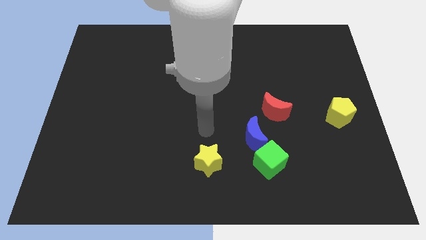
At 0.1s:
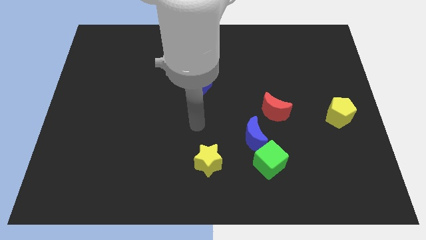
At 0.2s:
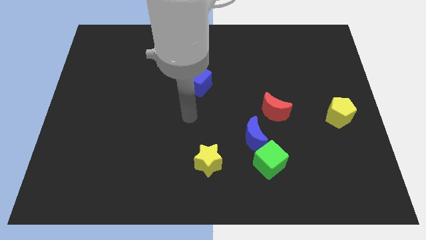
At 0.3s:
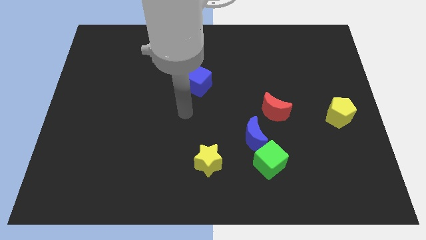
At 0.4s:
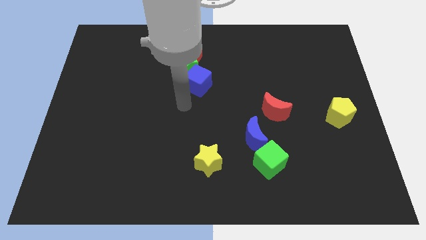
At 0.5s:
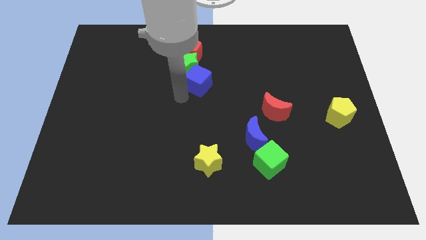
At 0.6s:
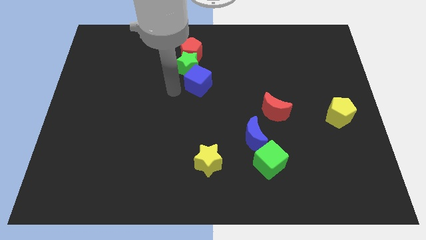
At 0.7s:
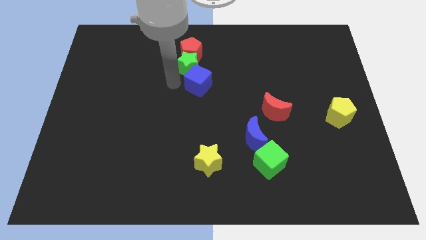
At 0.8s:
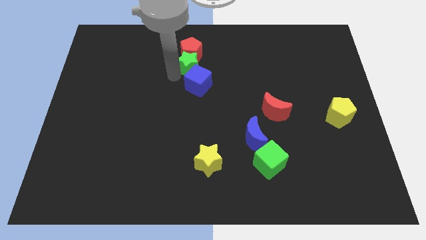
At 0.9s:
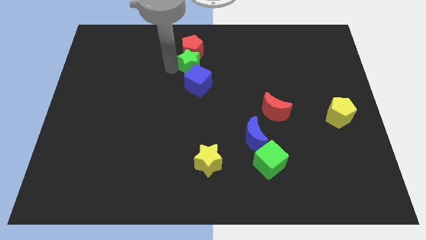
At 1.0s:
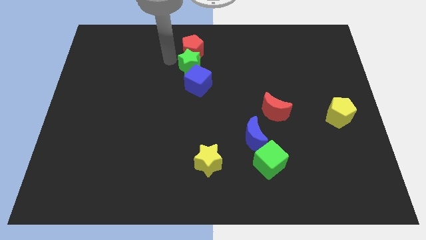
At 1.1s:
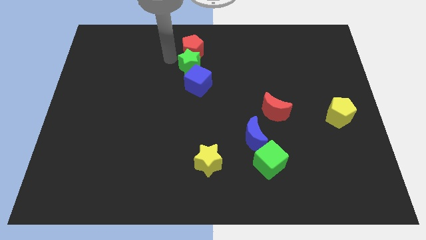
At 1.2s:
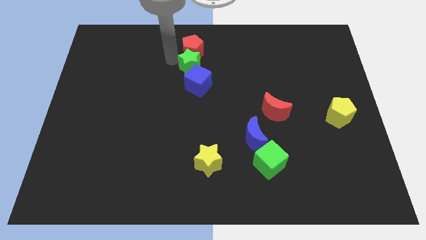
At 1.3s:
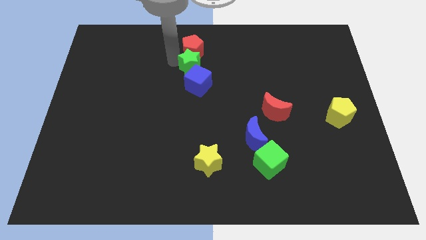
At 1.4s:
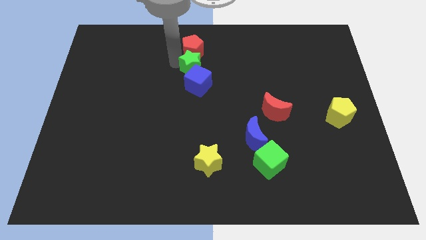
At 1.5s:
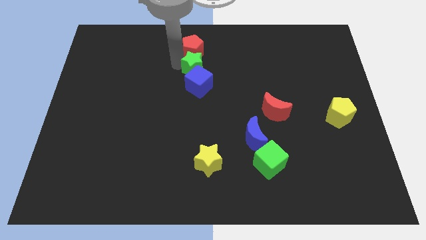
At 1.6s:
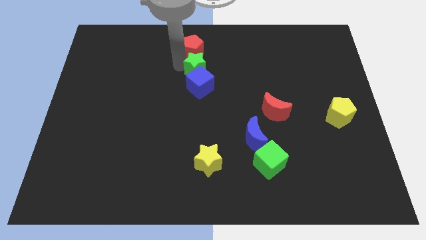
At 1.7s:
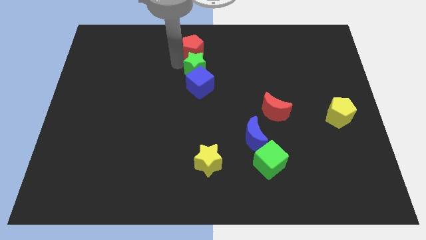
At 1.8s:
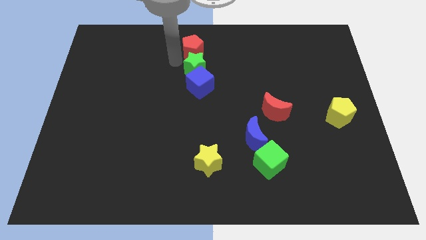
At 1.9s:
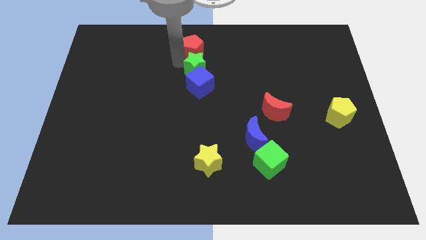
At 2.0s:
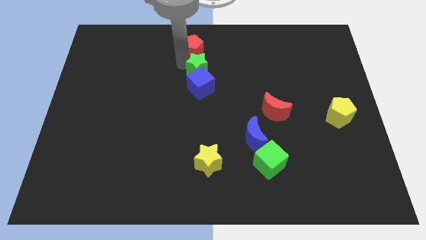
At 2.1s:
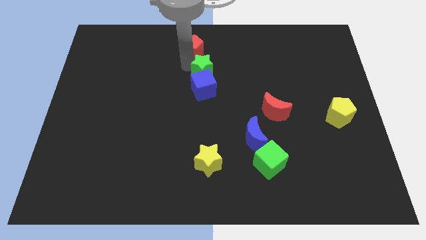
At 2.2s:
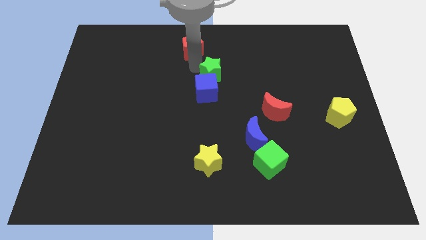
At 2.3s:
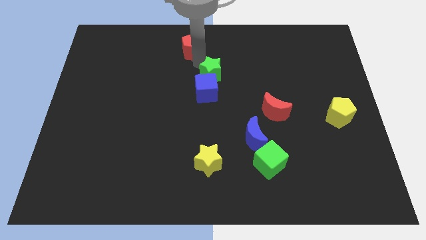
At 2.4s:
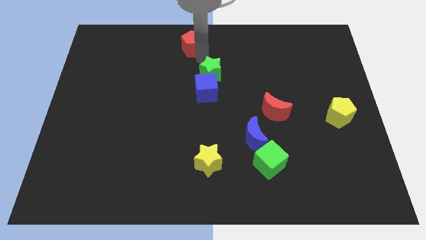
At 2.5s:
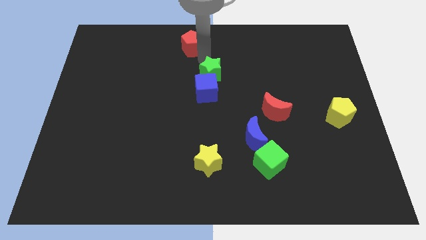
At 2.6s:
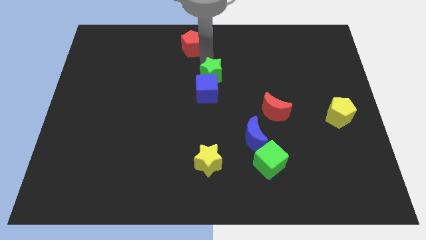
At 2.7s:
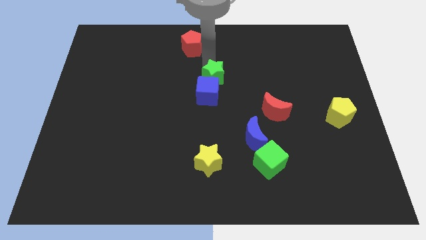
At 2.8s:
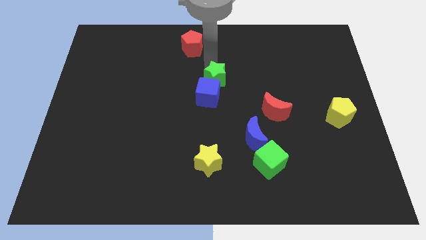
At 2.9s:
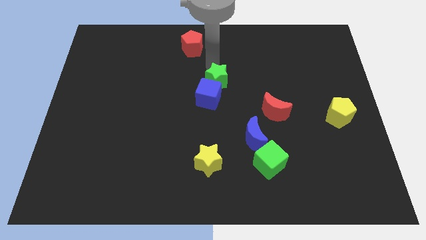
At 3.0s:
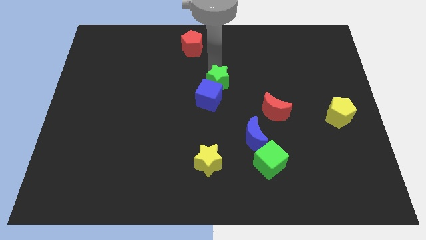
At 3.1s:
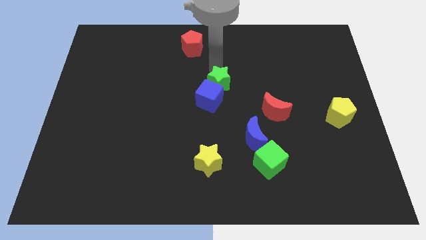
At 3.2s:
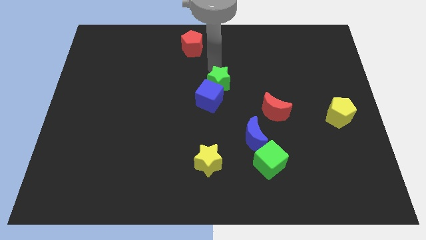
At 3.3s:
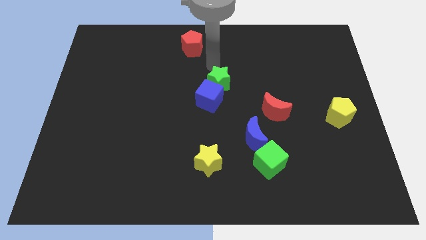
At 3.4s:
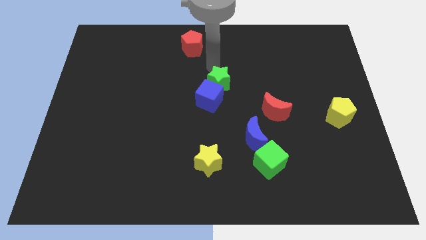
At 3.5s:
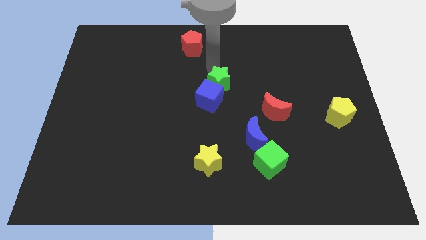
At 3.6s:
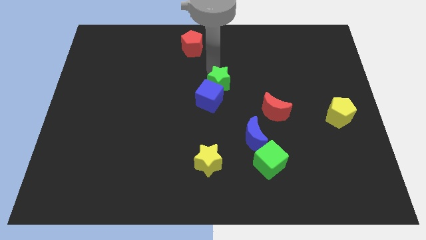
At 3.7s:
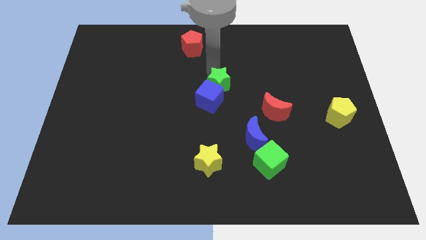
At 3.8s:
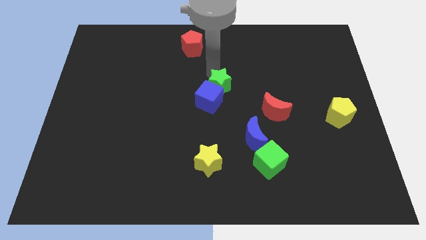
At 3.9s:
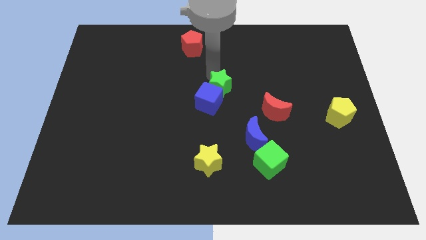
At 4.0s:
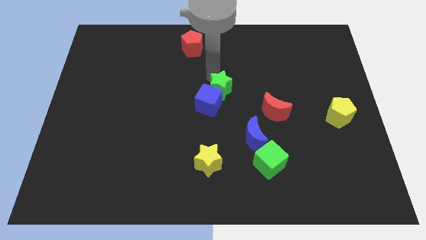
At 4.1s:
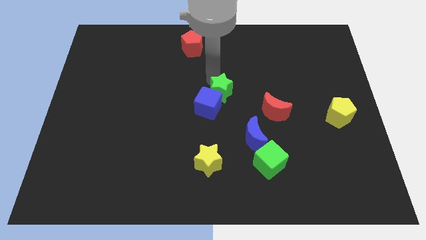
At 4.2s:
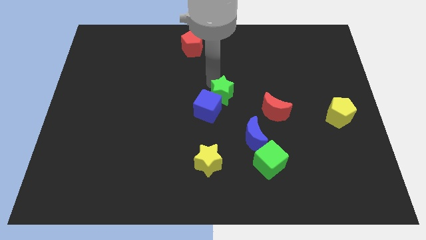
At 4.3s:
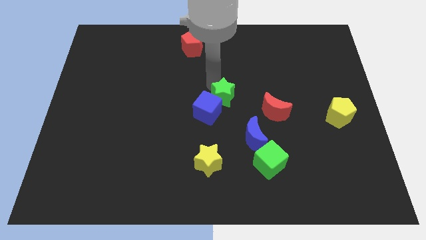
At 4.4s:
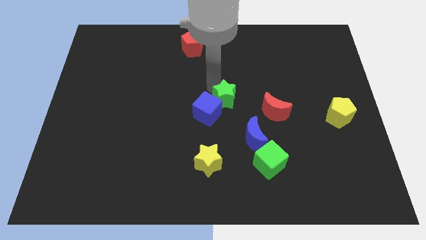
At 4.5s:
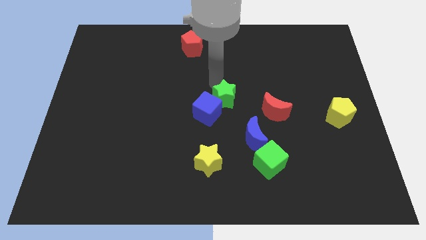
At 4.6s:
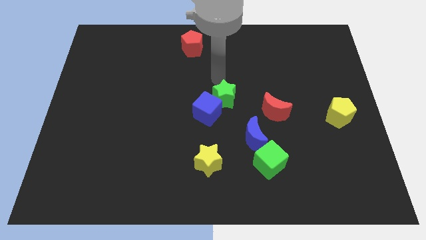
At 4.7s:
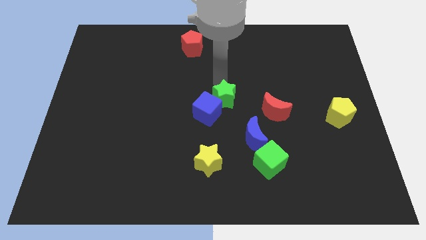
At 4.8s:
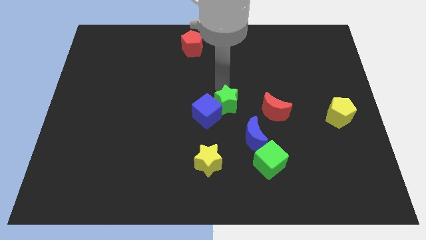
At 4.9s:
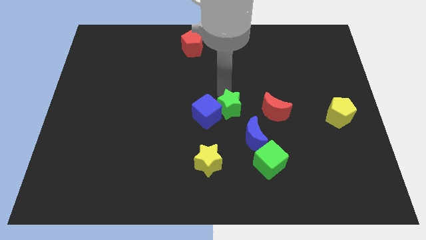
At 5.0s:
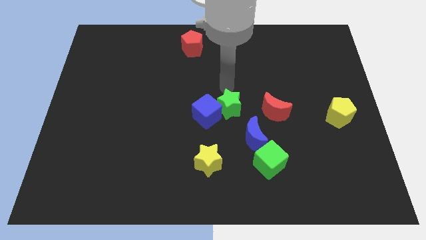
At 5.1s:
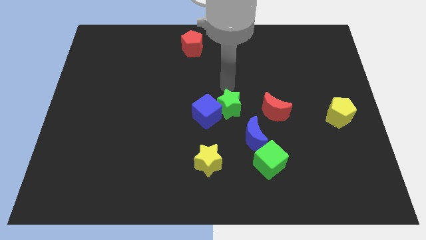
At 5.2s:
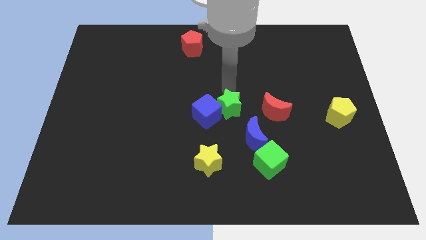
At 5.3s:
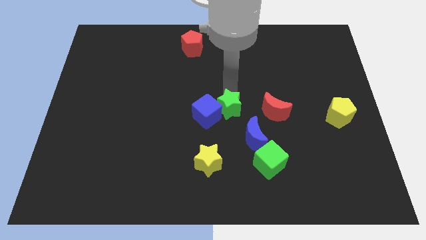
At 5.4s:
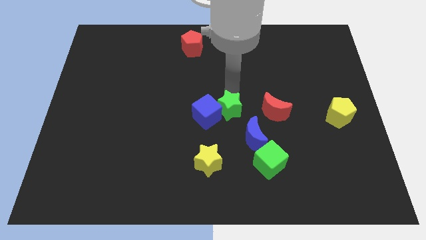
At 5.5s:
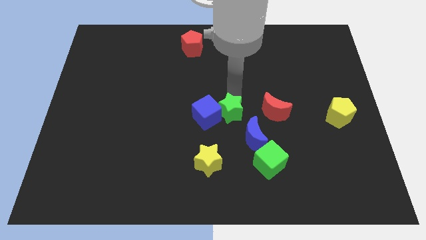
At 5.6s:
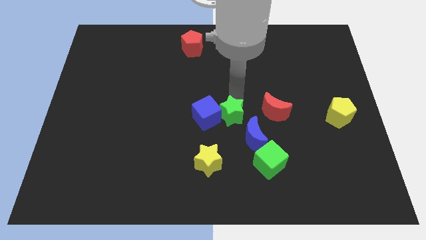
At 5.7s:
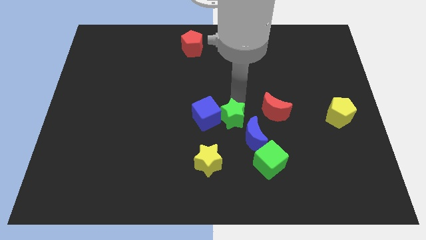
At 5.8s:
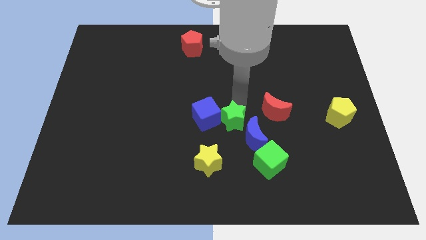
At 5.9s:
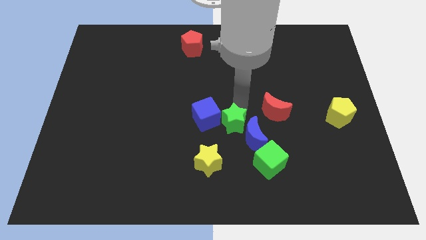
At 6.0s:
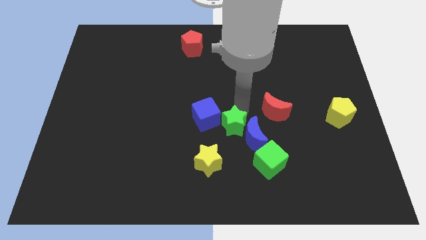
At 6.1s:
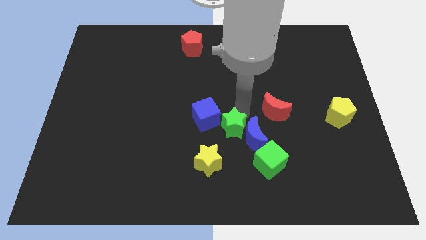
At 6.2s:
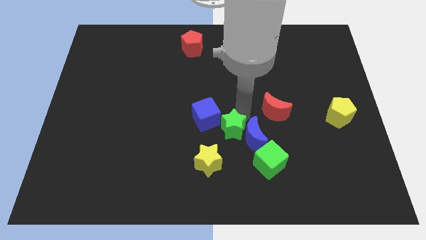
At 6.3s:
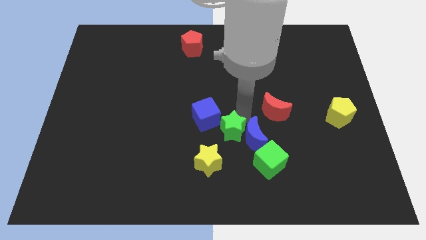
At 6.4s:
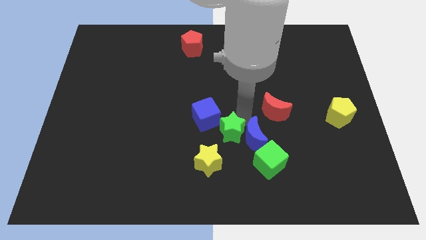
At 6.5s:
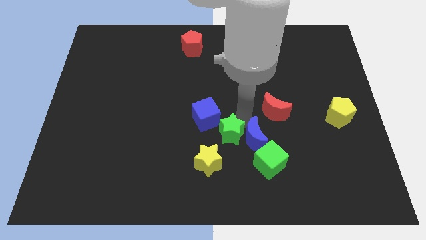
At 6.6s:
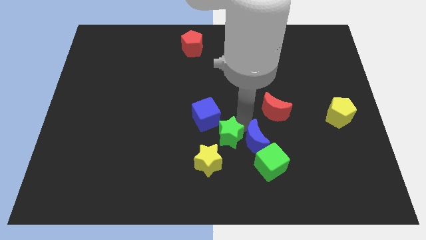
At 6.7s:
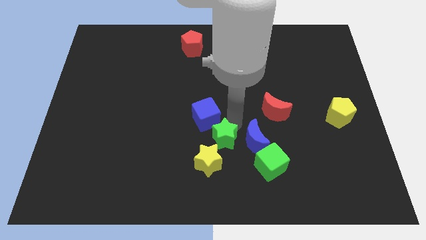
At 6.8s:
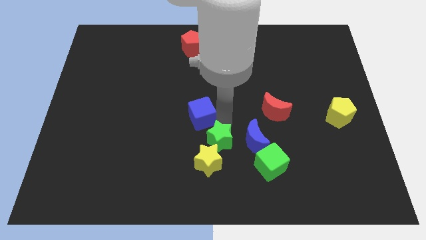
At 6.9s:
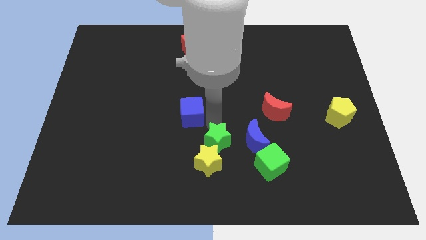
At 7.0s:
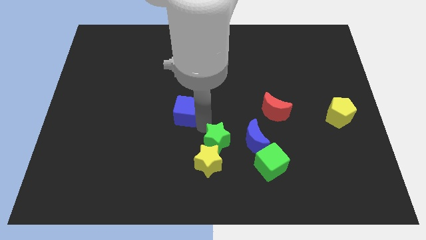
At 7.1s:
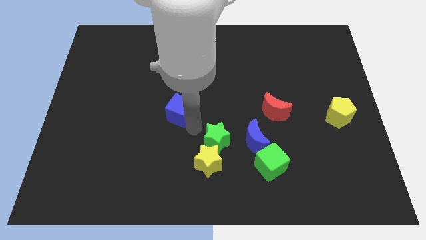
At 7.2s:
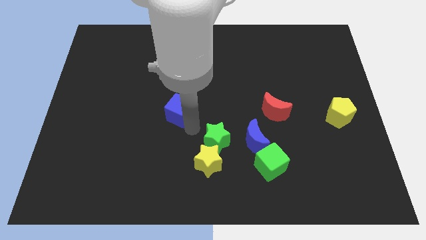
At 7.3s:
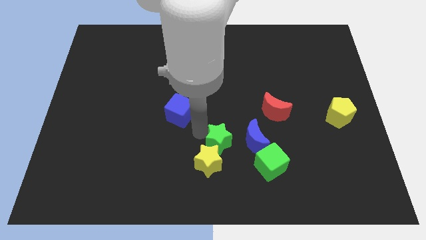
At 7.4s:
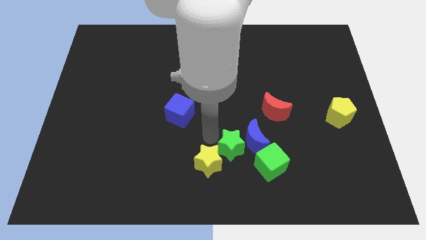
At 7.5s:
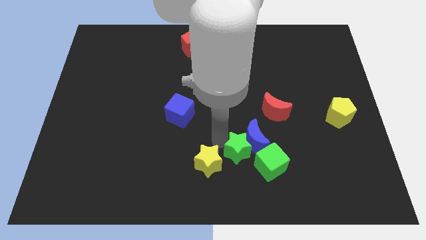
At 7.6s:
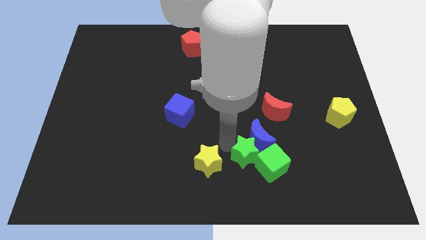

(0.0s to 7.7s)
put the green star next to the green cube

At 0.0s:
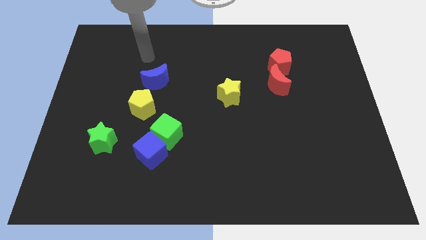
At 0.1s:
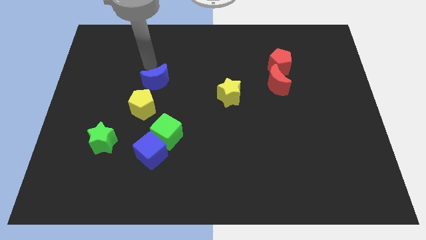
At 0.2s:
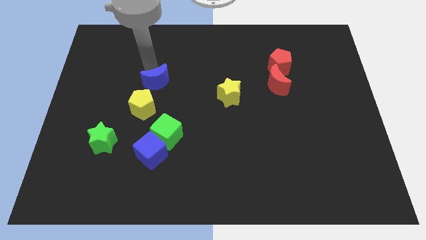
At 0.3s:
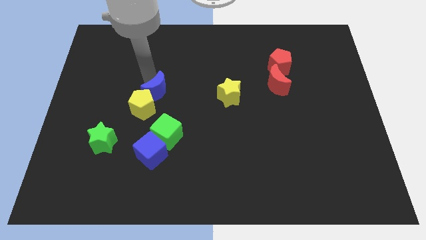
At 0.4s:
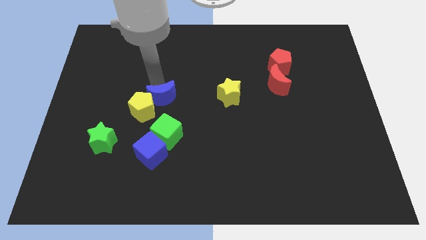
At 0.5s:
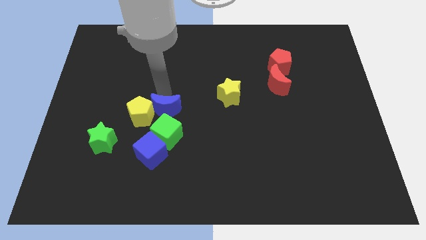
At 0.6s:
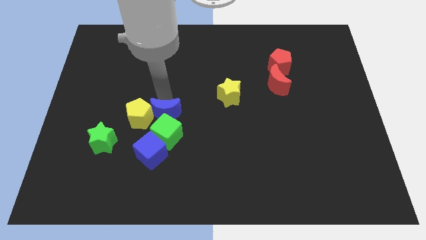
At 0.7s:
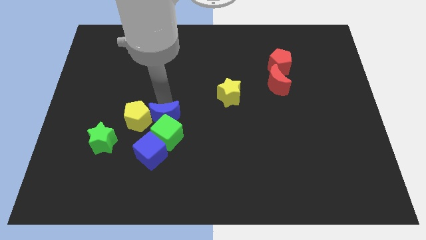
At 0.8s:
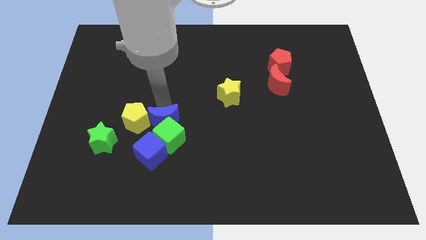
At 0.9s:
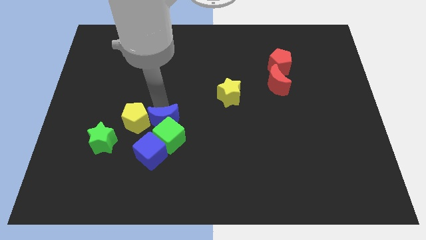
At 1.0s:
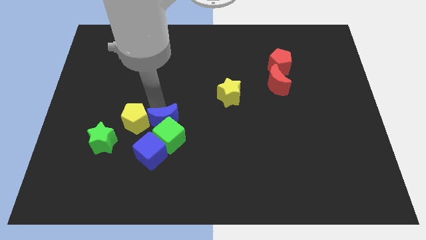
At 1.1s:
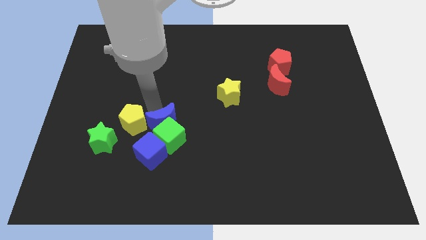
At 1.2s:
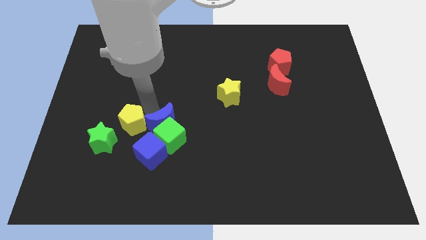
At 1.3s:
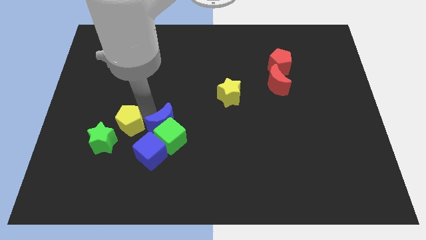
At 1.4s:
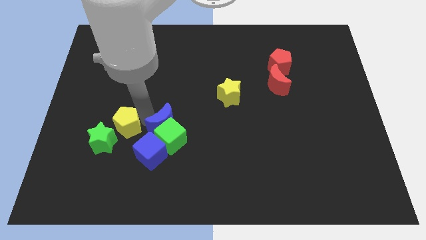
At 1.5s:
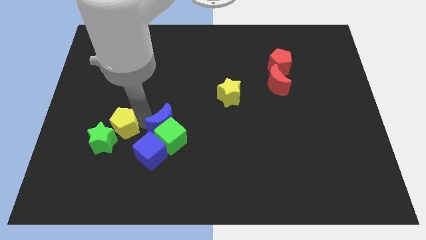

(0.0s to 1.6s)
push the yellow pentagon towards the green star
